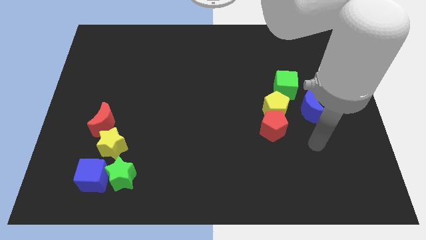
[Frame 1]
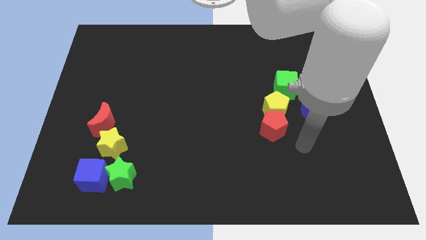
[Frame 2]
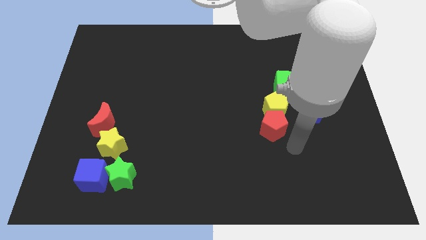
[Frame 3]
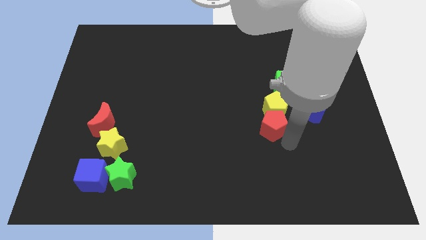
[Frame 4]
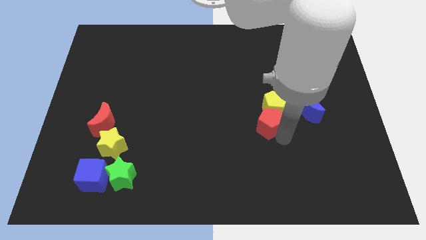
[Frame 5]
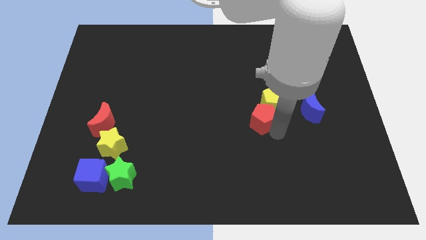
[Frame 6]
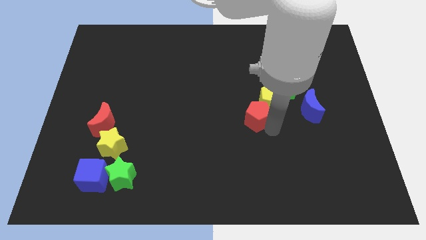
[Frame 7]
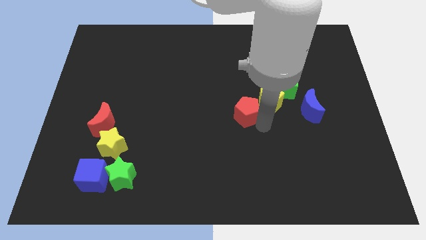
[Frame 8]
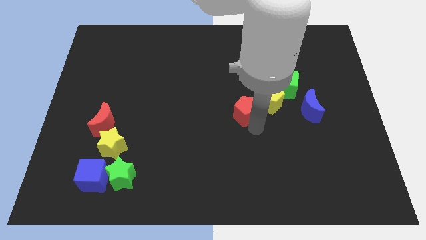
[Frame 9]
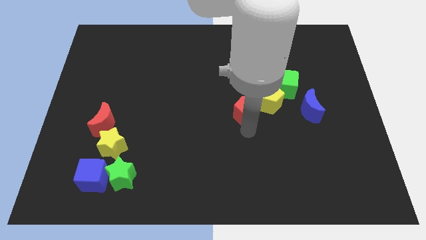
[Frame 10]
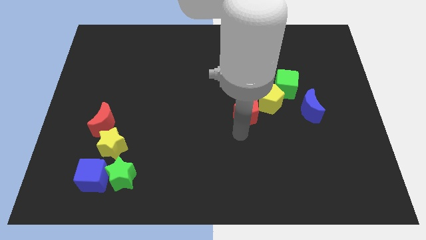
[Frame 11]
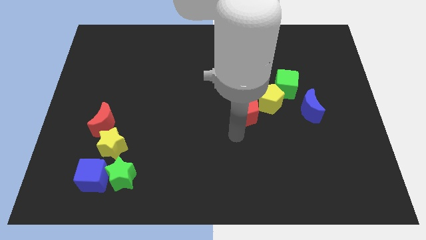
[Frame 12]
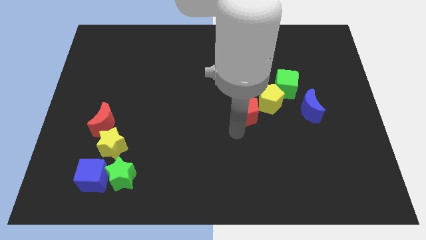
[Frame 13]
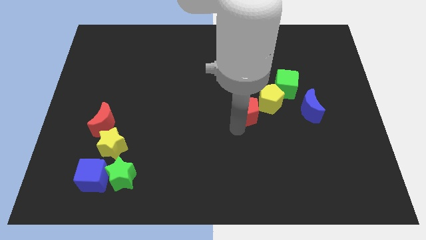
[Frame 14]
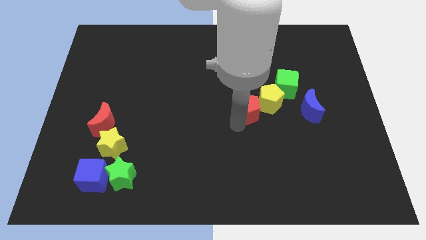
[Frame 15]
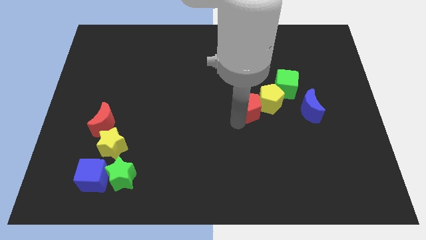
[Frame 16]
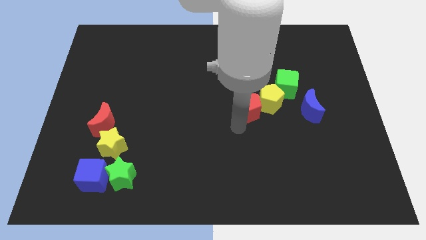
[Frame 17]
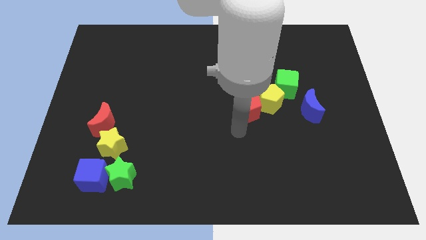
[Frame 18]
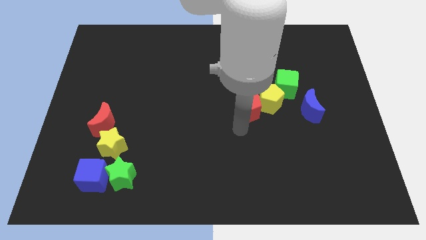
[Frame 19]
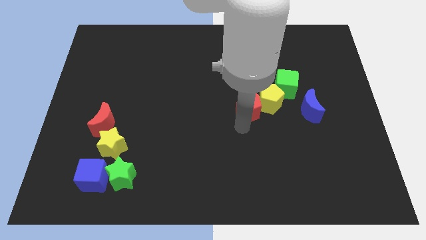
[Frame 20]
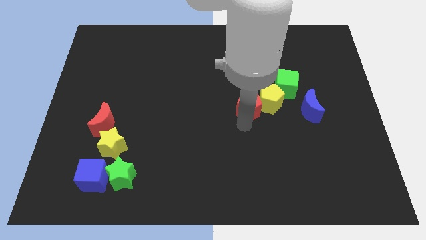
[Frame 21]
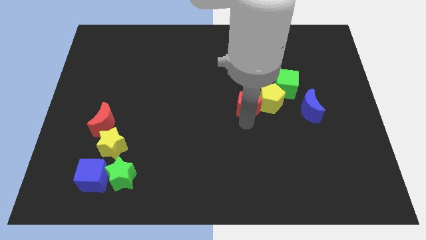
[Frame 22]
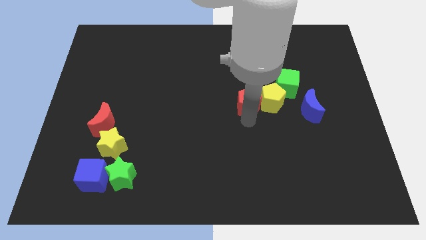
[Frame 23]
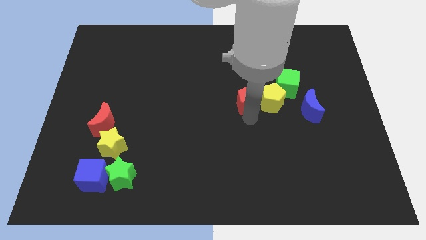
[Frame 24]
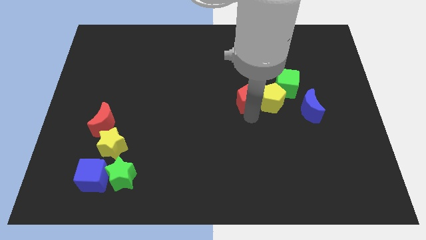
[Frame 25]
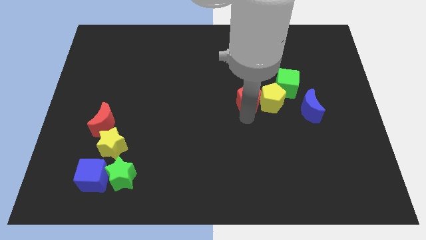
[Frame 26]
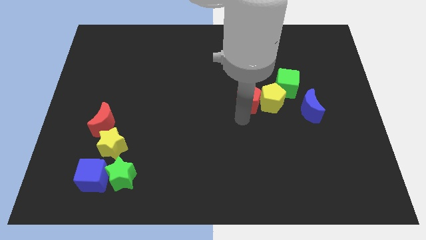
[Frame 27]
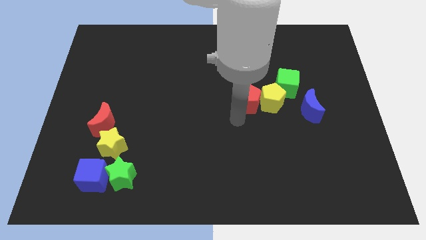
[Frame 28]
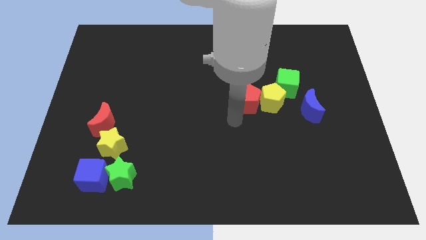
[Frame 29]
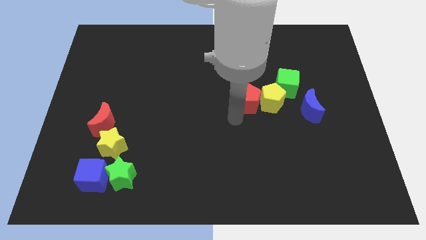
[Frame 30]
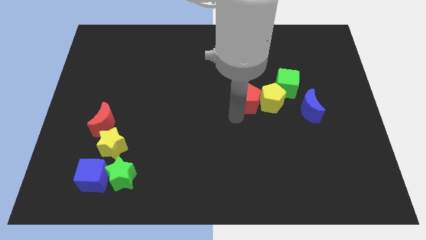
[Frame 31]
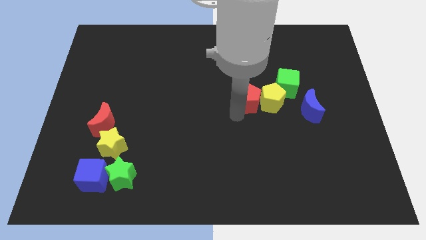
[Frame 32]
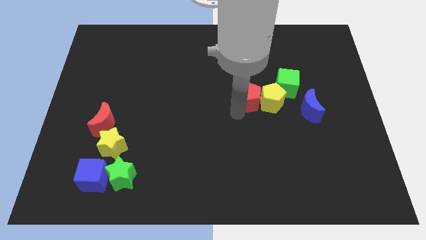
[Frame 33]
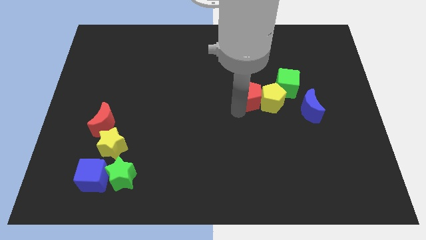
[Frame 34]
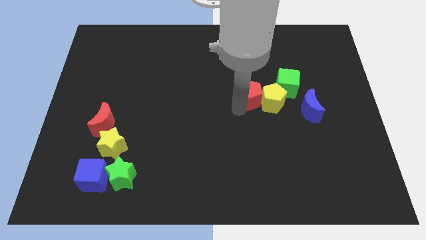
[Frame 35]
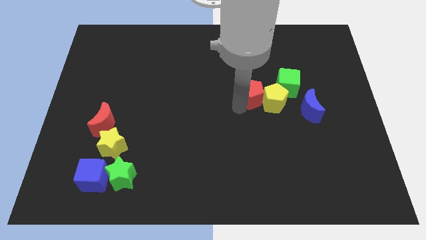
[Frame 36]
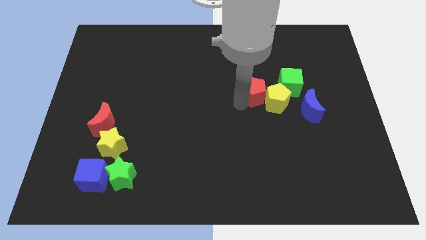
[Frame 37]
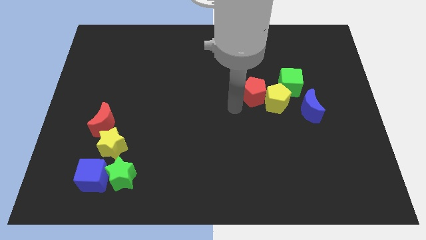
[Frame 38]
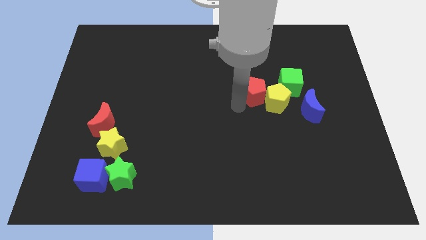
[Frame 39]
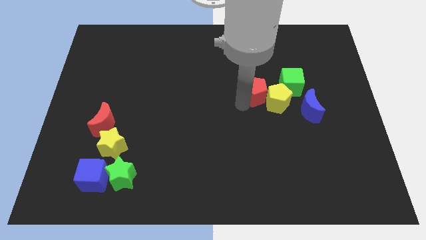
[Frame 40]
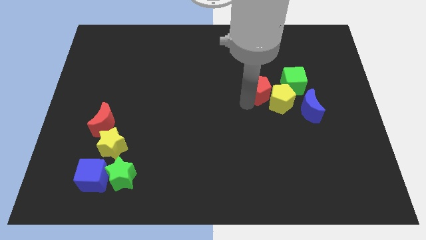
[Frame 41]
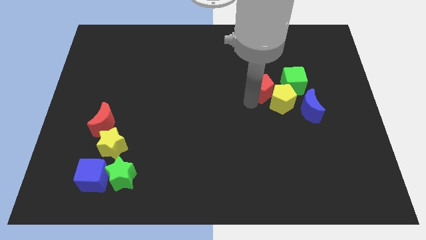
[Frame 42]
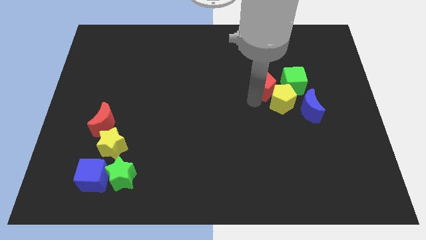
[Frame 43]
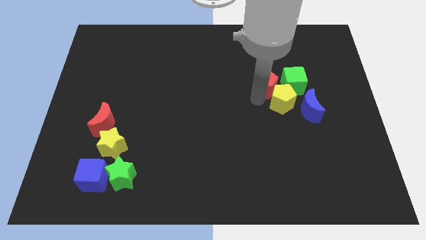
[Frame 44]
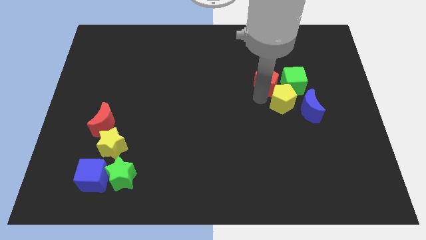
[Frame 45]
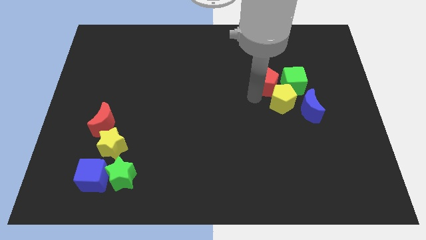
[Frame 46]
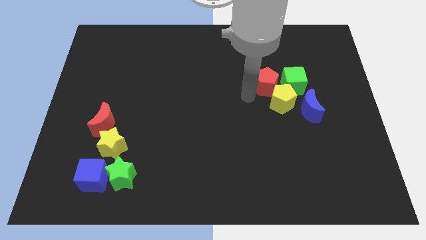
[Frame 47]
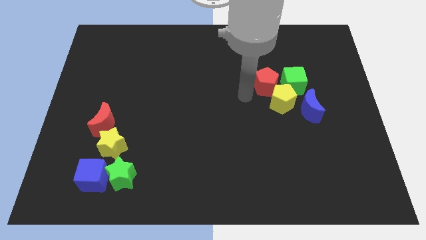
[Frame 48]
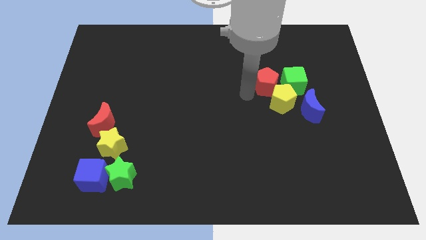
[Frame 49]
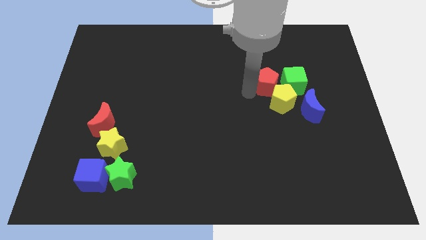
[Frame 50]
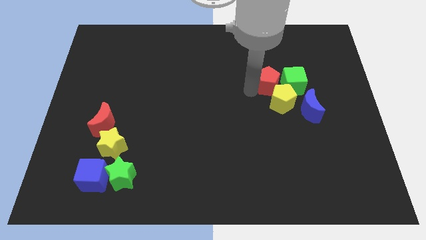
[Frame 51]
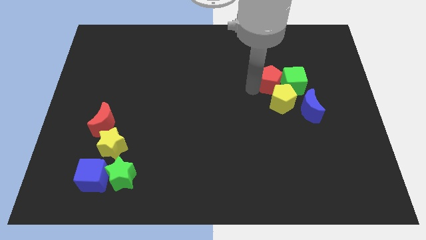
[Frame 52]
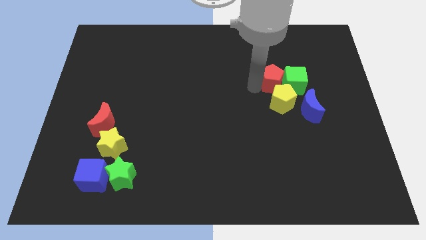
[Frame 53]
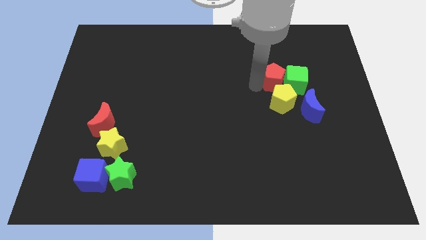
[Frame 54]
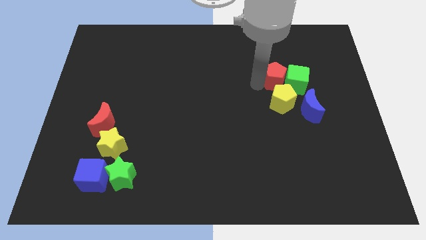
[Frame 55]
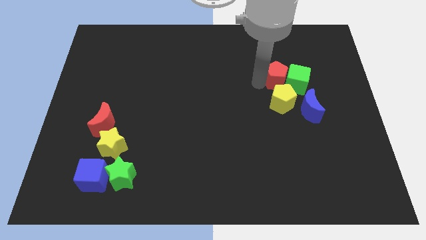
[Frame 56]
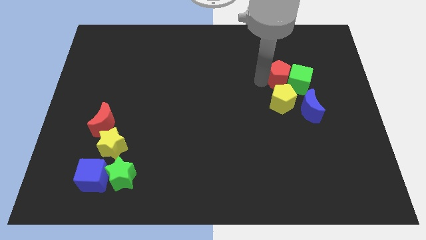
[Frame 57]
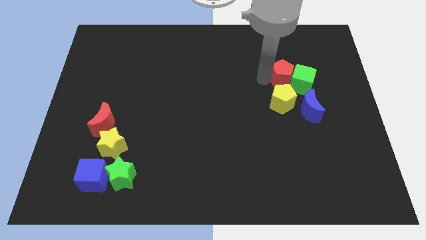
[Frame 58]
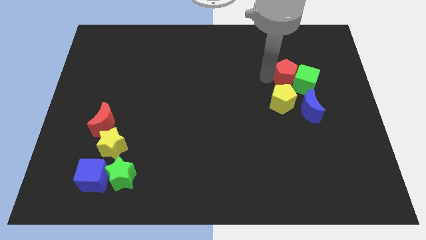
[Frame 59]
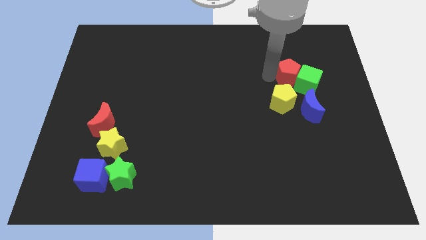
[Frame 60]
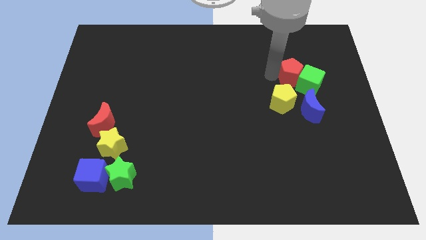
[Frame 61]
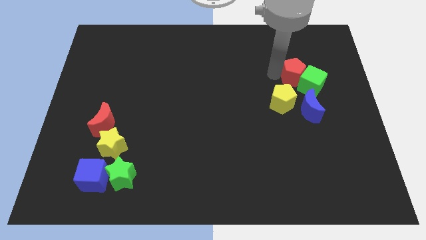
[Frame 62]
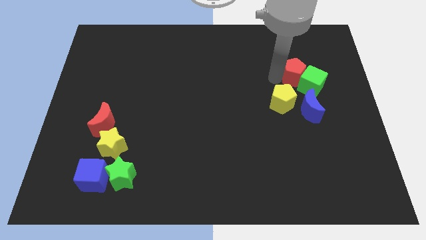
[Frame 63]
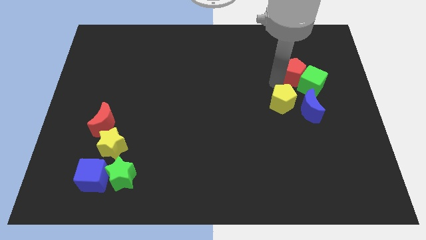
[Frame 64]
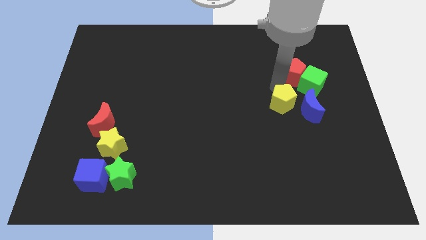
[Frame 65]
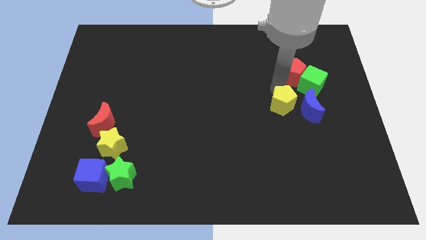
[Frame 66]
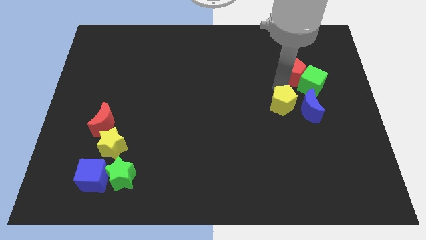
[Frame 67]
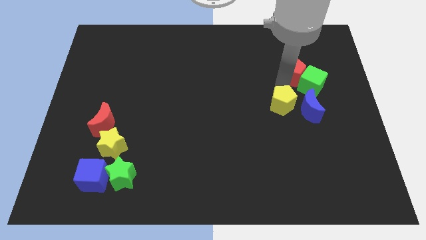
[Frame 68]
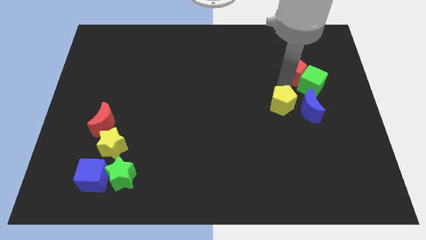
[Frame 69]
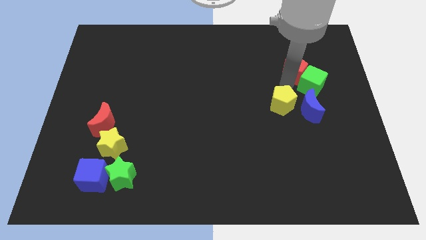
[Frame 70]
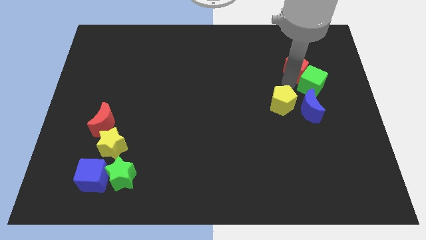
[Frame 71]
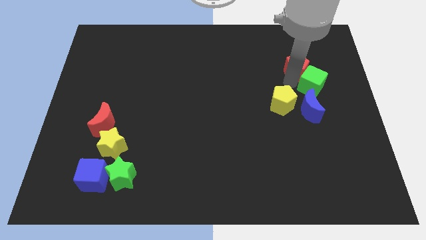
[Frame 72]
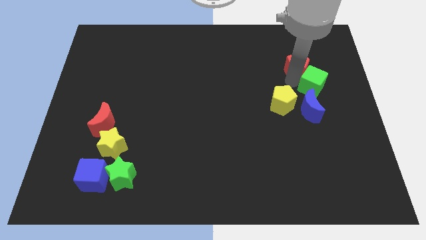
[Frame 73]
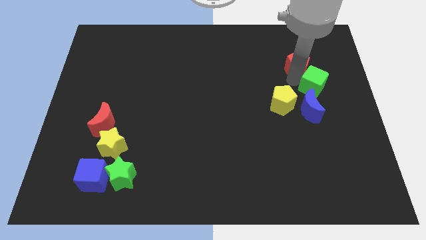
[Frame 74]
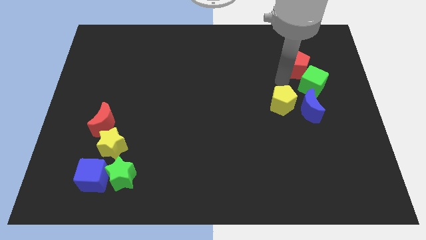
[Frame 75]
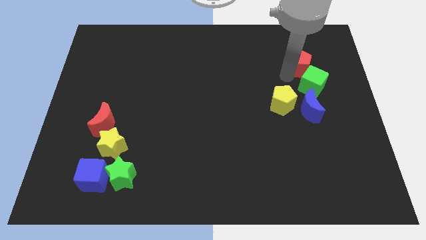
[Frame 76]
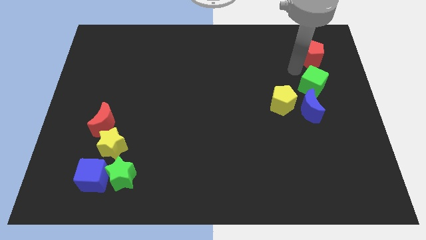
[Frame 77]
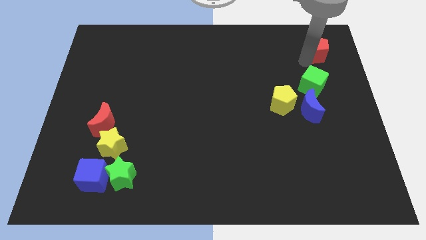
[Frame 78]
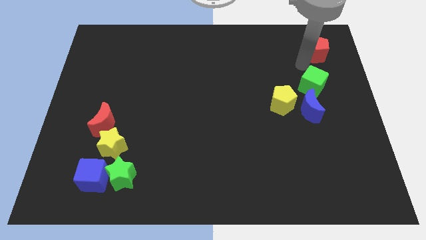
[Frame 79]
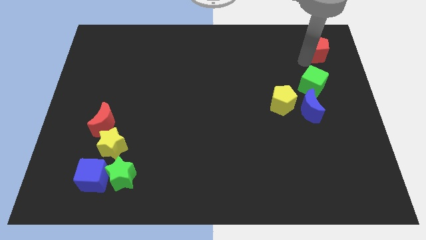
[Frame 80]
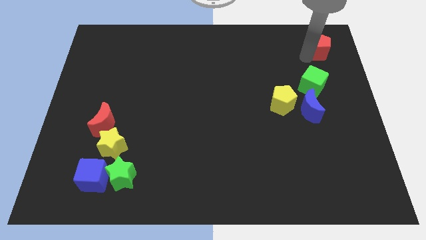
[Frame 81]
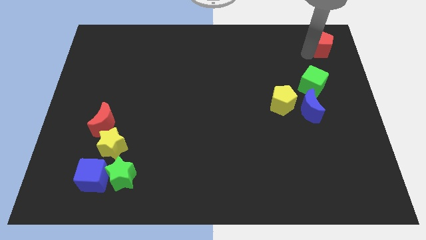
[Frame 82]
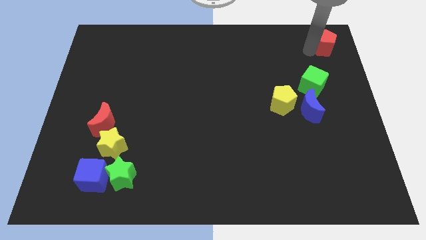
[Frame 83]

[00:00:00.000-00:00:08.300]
put the red pentagon to the top right of the board
